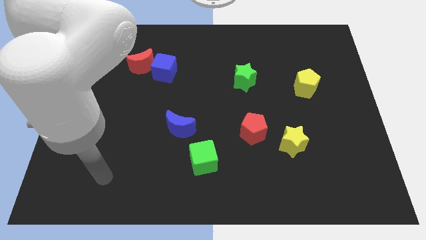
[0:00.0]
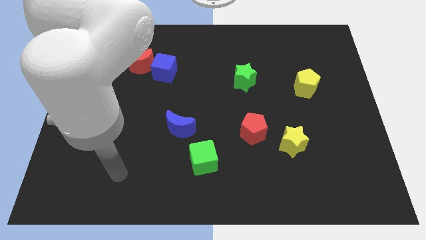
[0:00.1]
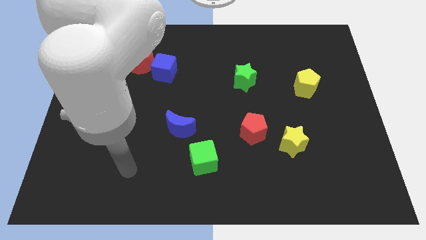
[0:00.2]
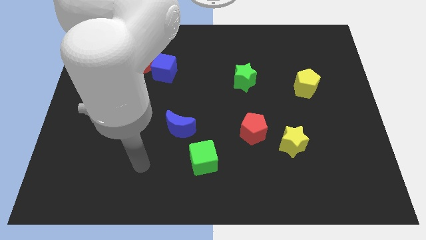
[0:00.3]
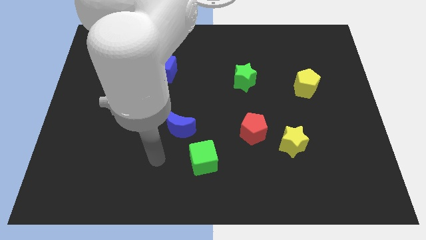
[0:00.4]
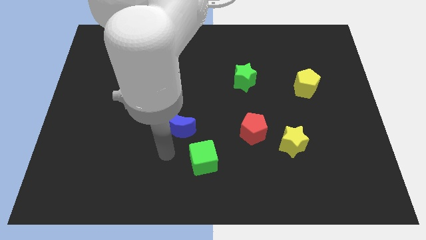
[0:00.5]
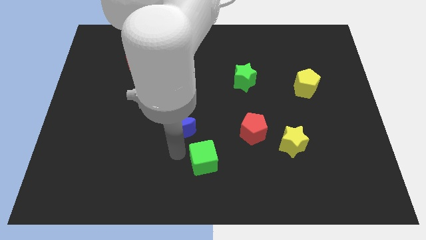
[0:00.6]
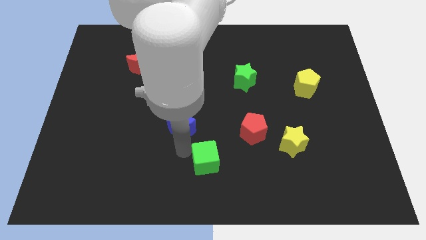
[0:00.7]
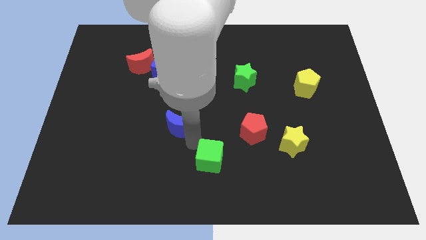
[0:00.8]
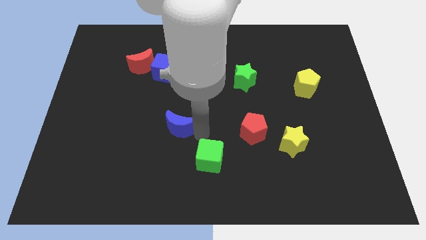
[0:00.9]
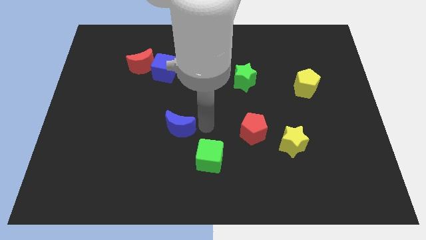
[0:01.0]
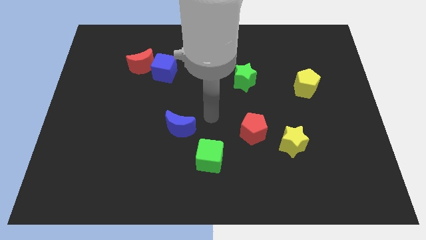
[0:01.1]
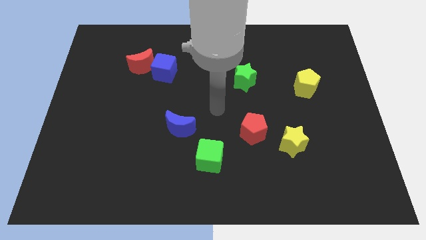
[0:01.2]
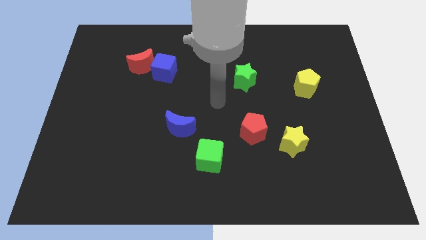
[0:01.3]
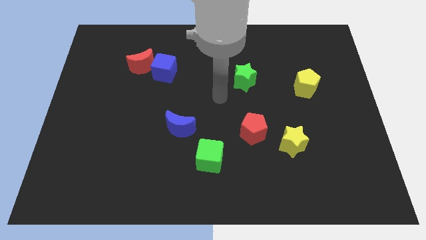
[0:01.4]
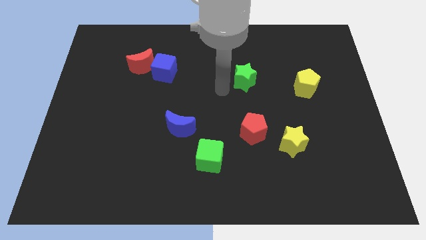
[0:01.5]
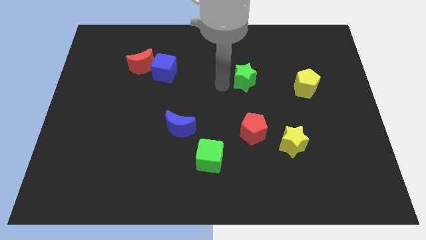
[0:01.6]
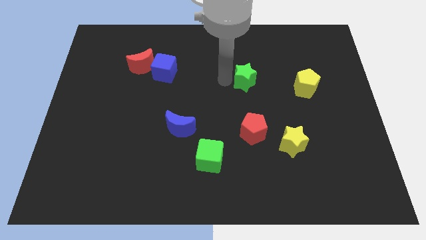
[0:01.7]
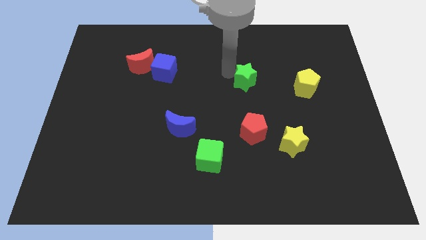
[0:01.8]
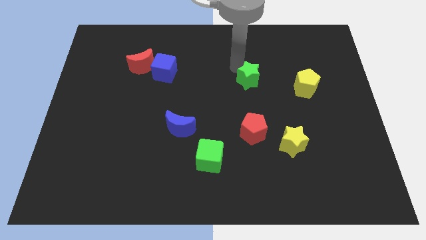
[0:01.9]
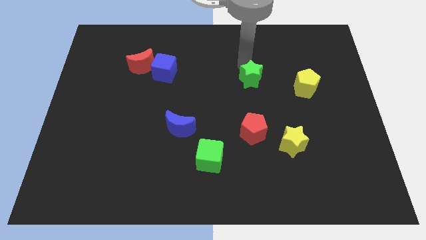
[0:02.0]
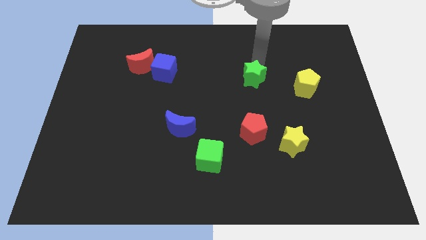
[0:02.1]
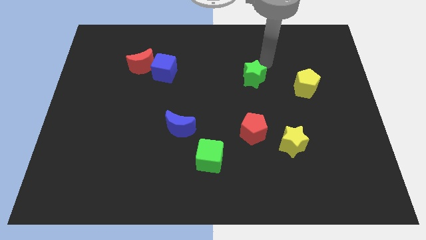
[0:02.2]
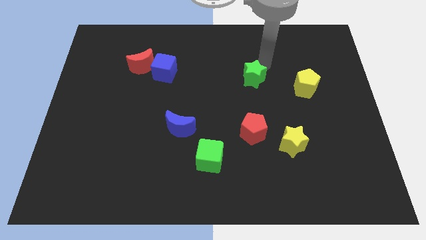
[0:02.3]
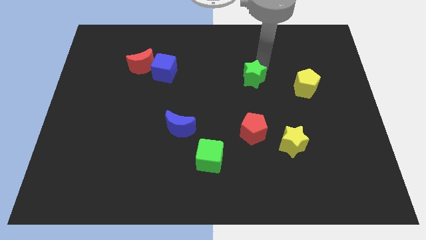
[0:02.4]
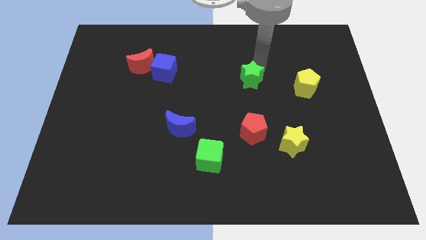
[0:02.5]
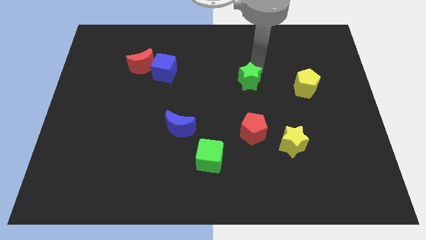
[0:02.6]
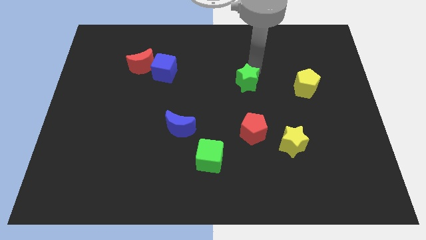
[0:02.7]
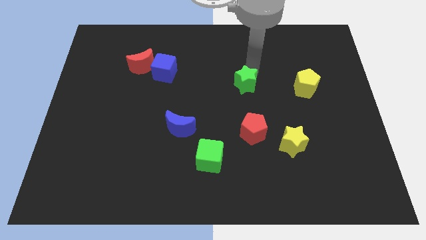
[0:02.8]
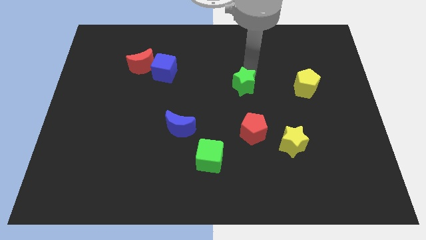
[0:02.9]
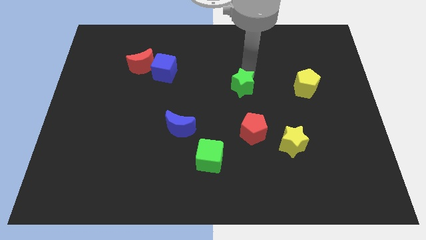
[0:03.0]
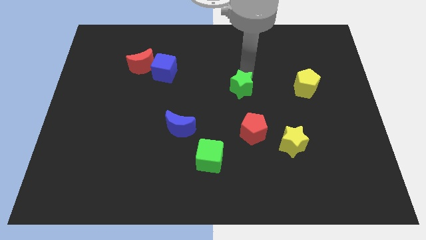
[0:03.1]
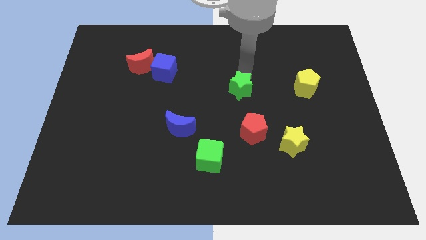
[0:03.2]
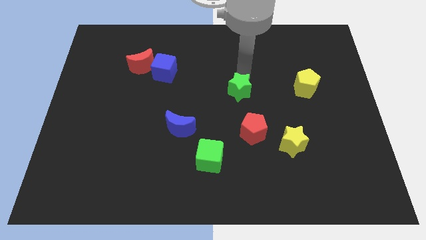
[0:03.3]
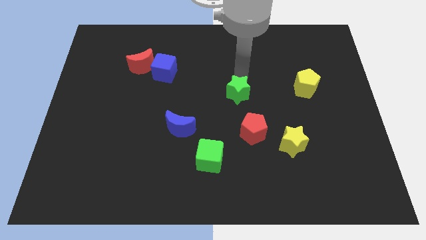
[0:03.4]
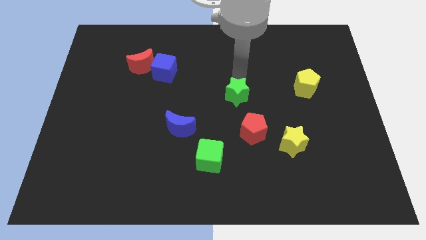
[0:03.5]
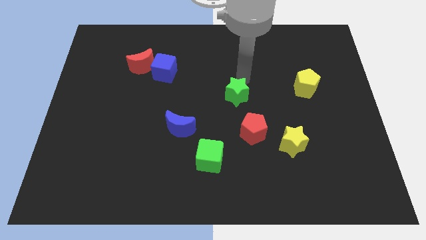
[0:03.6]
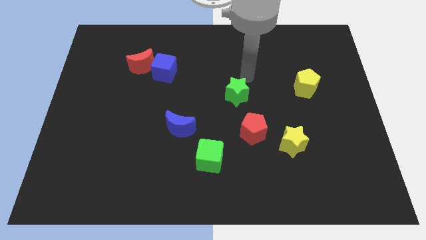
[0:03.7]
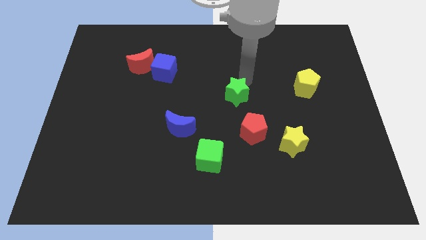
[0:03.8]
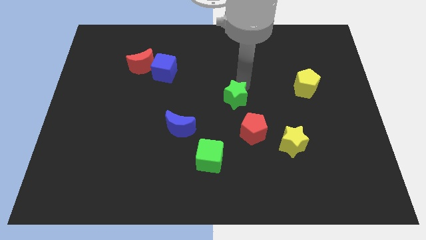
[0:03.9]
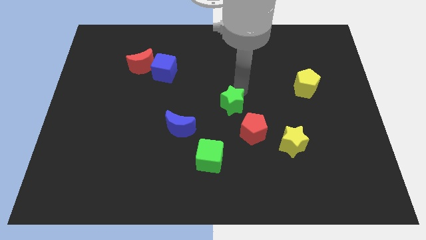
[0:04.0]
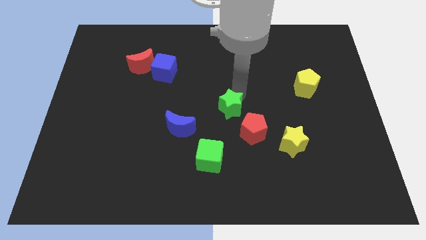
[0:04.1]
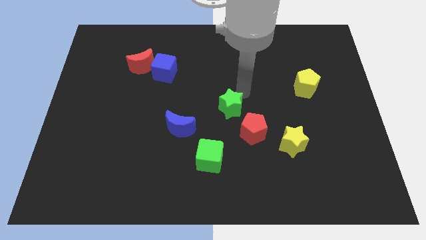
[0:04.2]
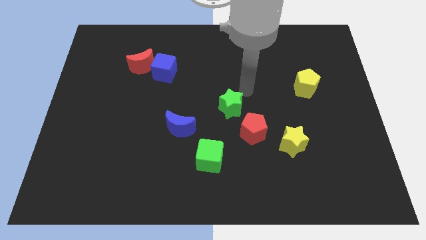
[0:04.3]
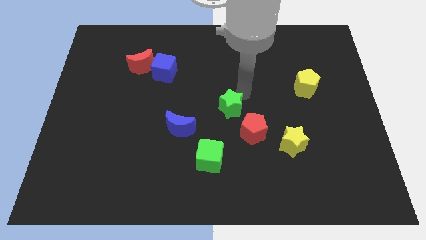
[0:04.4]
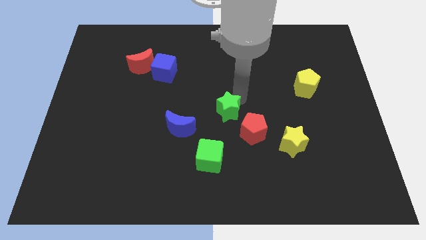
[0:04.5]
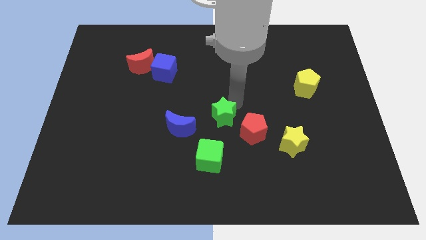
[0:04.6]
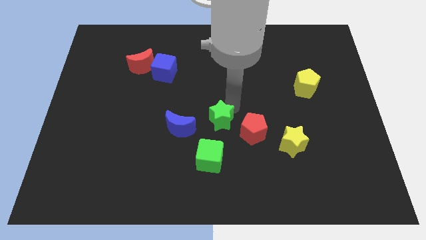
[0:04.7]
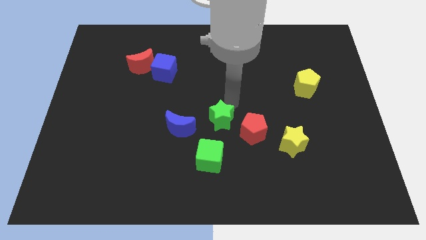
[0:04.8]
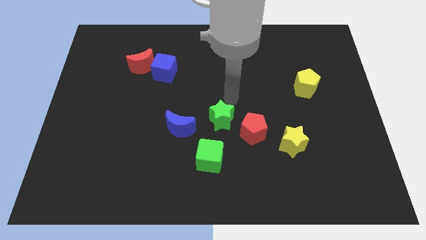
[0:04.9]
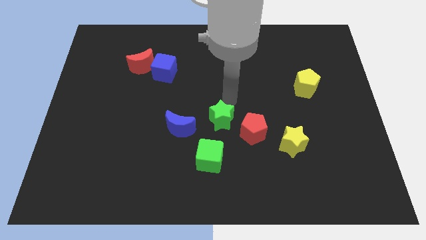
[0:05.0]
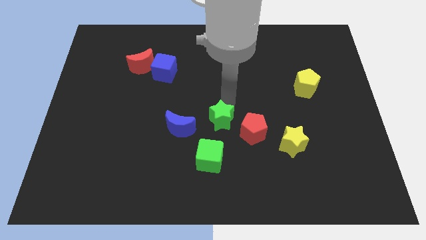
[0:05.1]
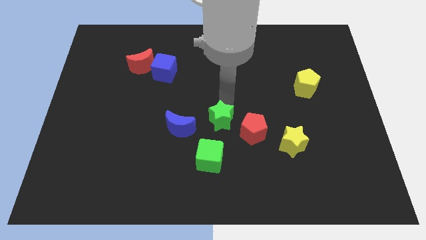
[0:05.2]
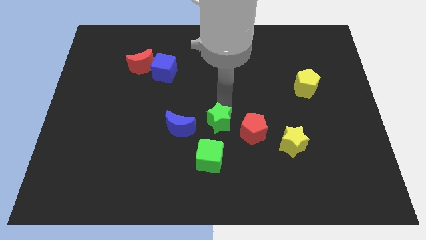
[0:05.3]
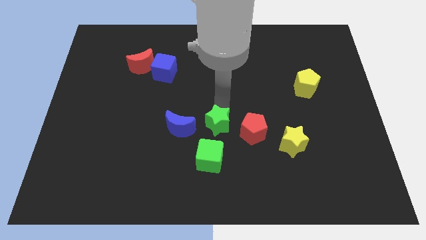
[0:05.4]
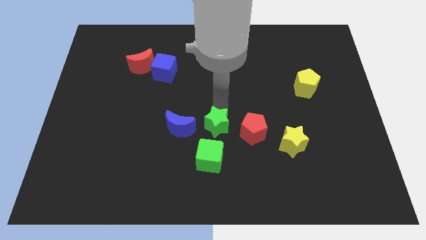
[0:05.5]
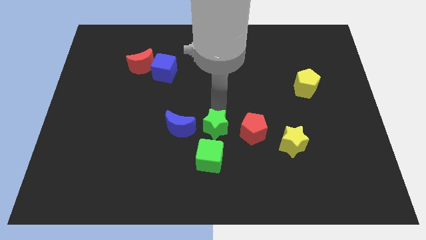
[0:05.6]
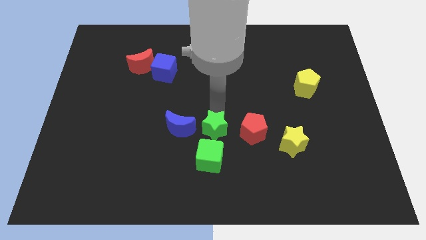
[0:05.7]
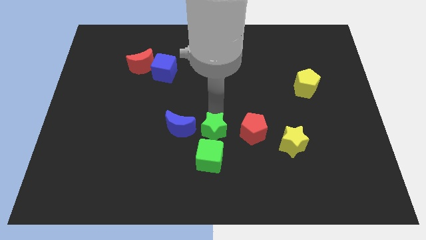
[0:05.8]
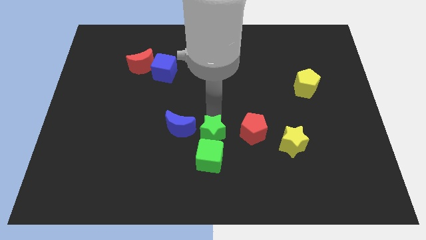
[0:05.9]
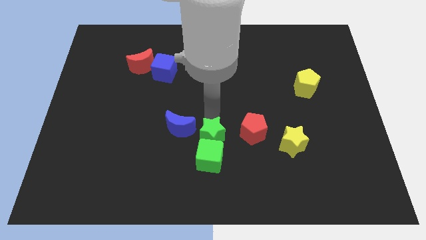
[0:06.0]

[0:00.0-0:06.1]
push the green star close to the green cube
